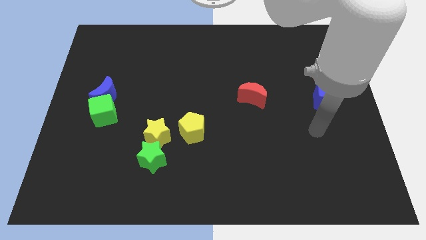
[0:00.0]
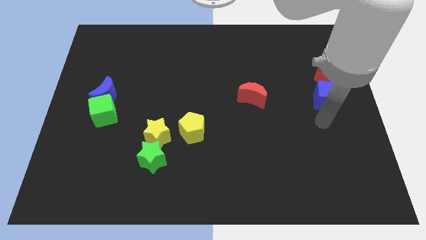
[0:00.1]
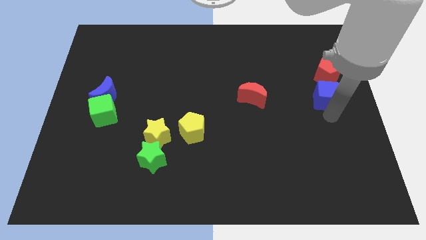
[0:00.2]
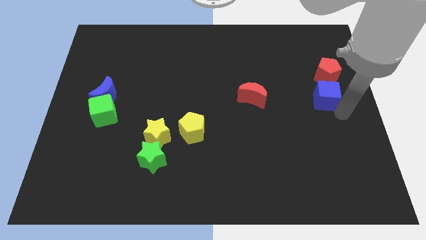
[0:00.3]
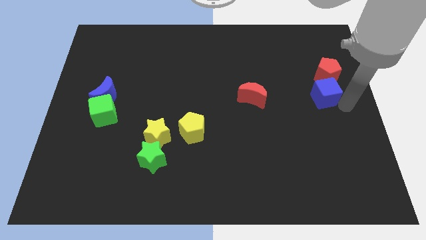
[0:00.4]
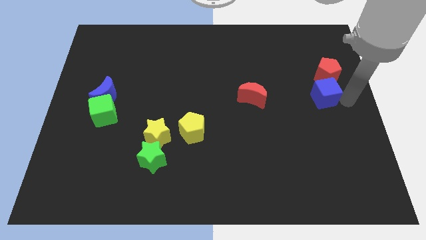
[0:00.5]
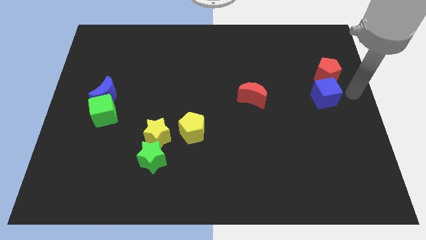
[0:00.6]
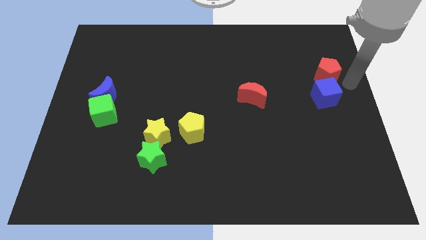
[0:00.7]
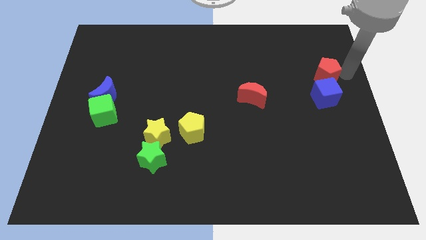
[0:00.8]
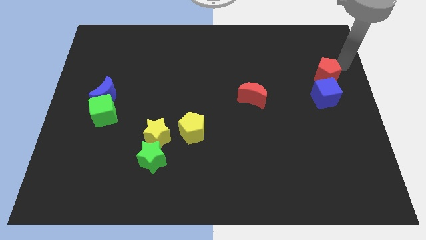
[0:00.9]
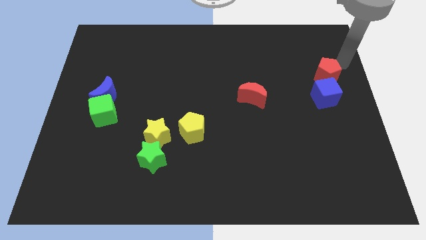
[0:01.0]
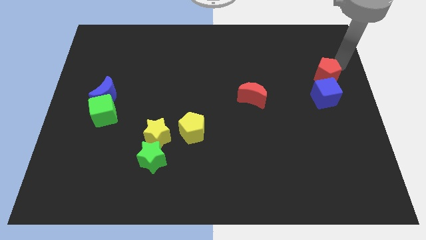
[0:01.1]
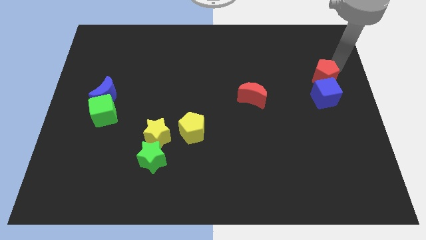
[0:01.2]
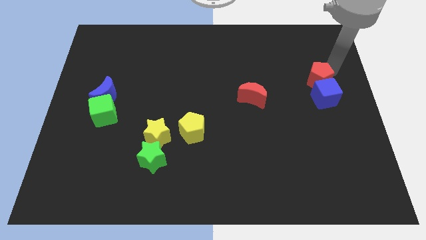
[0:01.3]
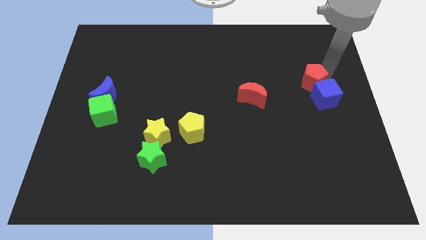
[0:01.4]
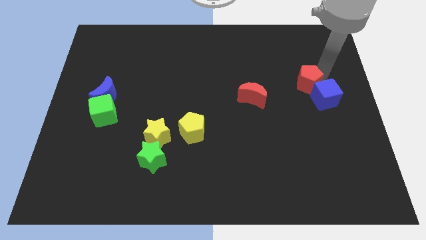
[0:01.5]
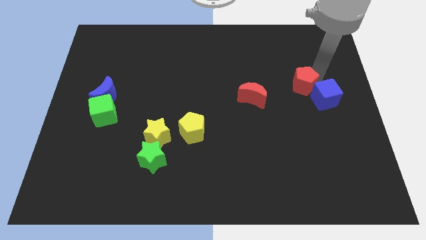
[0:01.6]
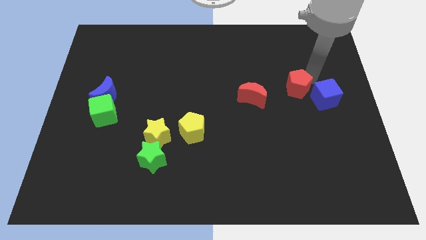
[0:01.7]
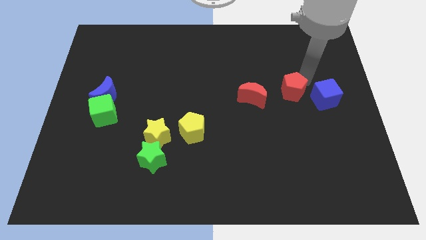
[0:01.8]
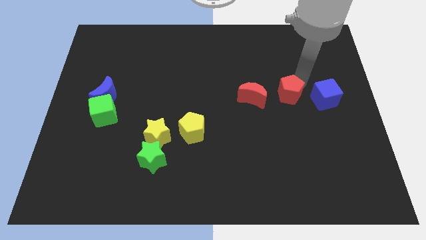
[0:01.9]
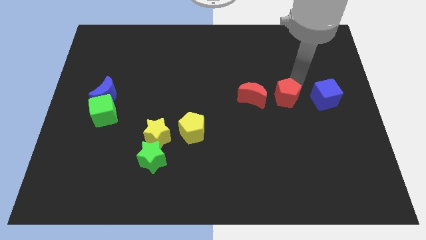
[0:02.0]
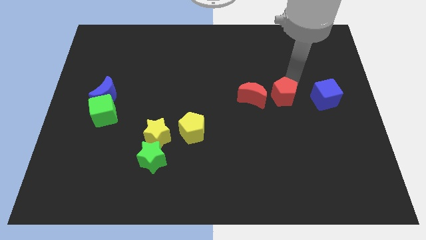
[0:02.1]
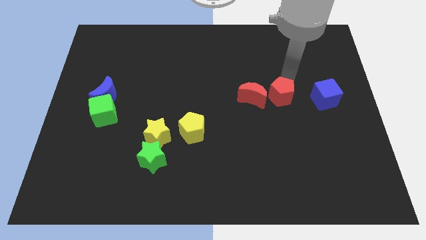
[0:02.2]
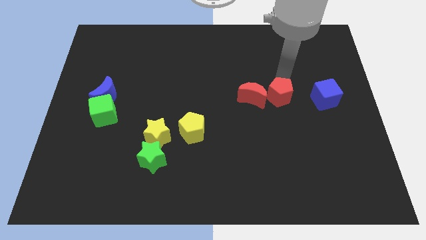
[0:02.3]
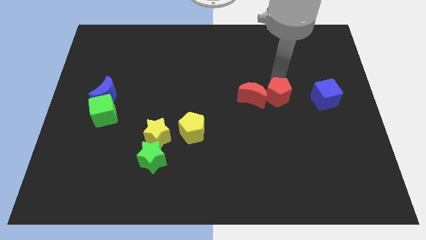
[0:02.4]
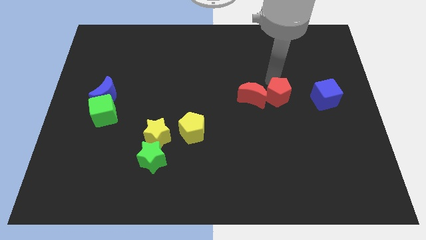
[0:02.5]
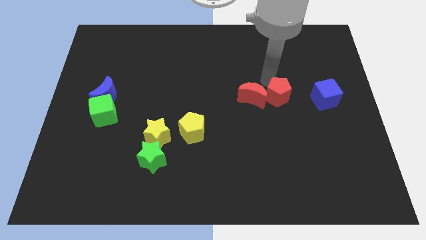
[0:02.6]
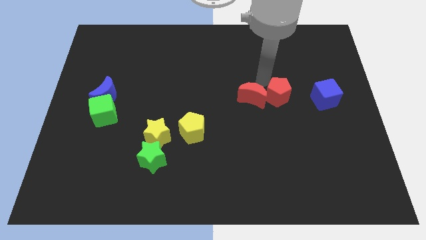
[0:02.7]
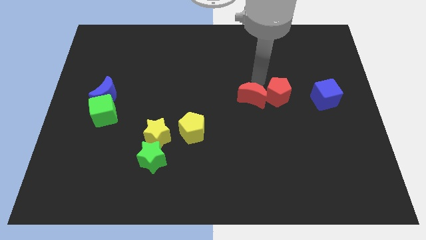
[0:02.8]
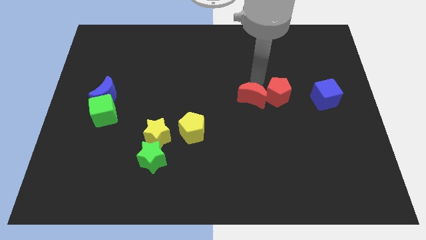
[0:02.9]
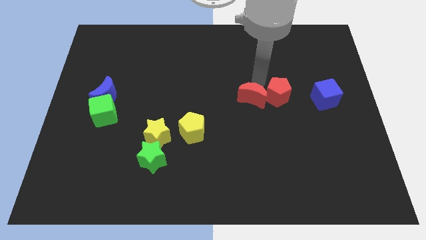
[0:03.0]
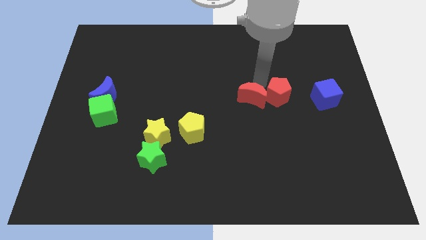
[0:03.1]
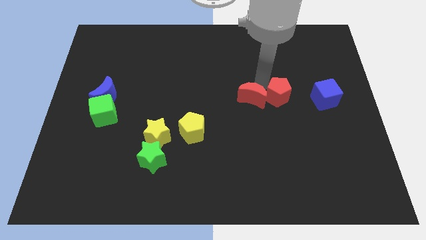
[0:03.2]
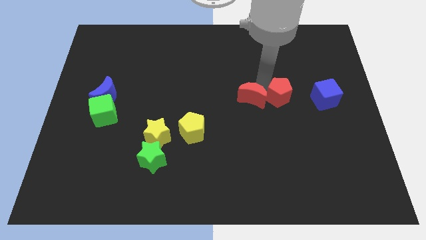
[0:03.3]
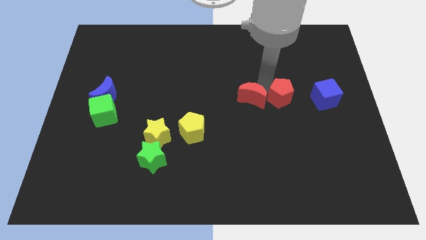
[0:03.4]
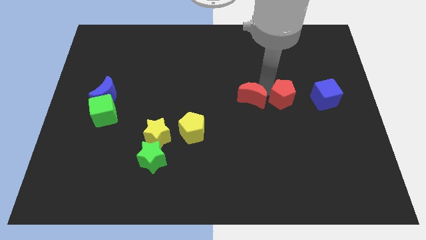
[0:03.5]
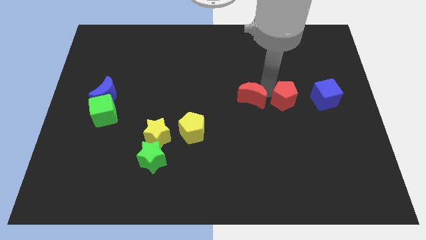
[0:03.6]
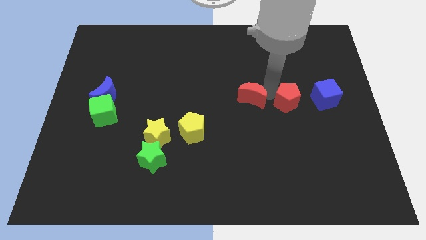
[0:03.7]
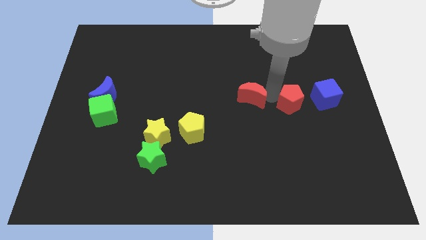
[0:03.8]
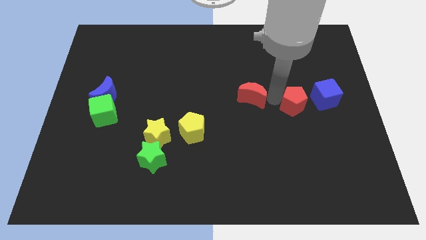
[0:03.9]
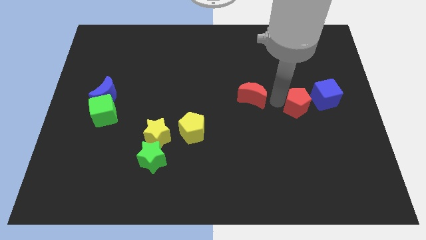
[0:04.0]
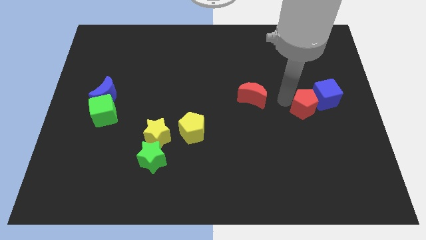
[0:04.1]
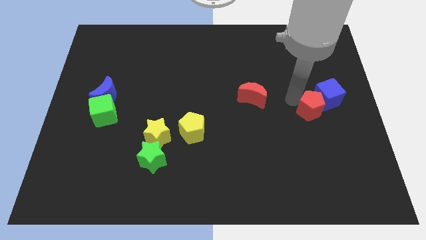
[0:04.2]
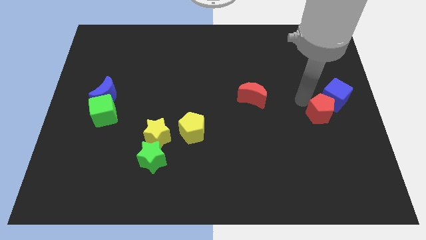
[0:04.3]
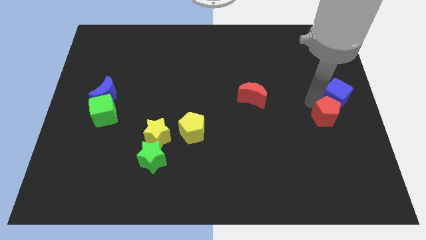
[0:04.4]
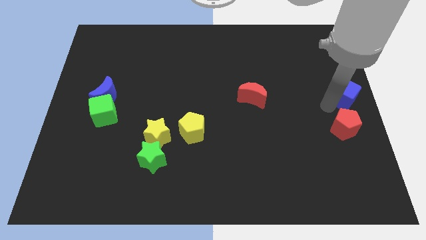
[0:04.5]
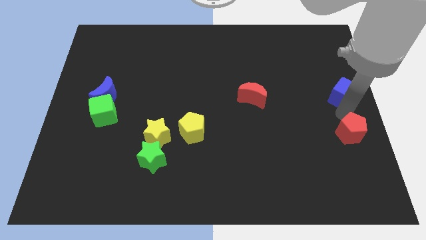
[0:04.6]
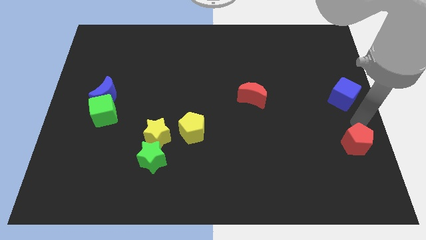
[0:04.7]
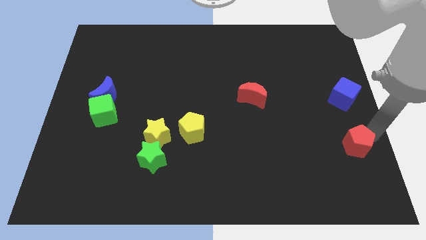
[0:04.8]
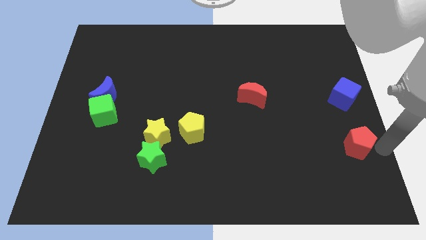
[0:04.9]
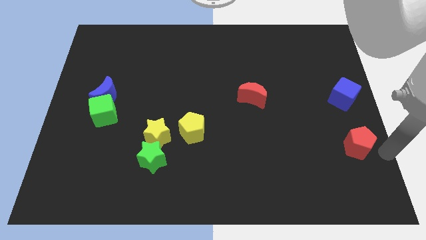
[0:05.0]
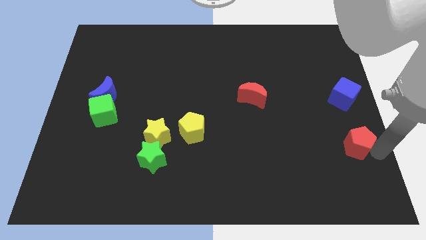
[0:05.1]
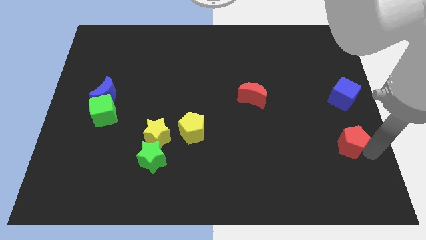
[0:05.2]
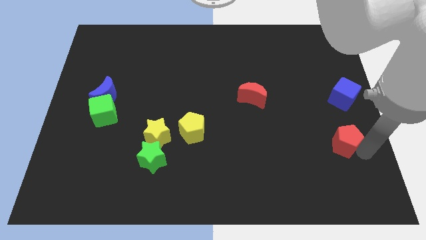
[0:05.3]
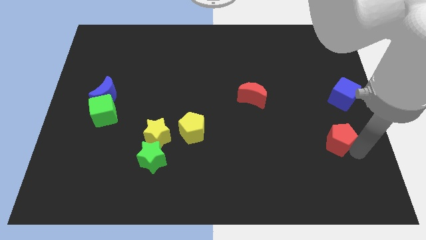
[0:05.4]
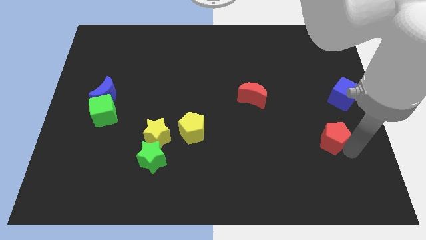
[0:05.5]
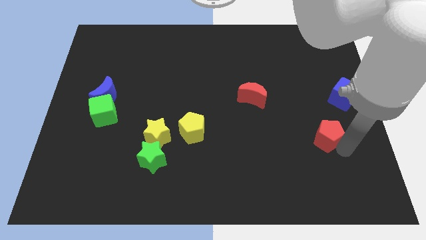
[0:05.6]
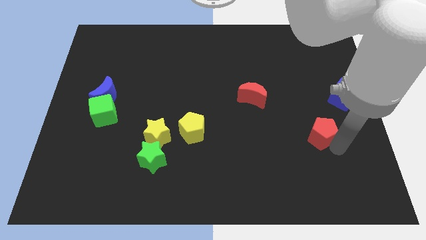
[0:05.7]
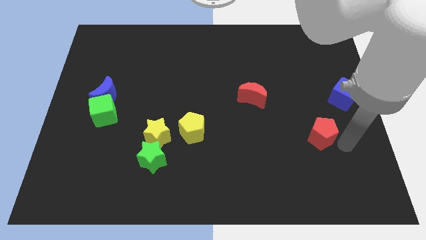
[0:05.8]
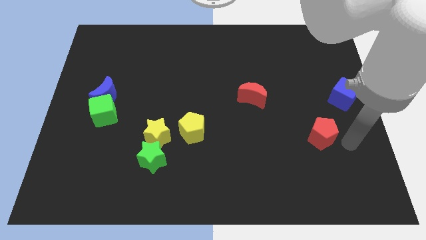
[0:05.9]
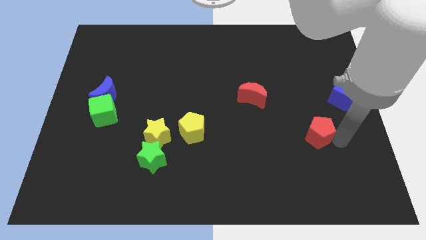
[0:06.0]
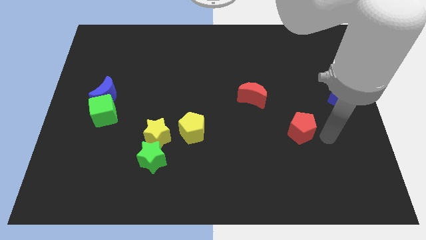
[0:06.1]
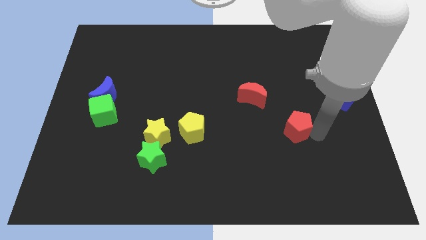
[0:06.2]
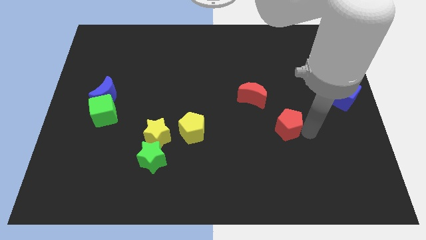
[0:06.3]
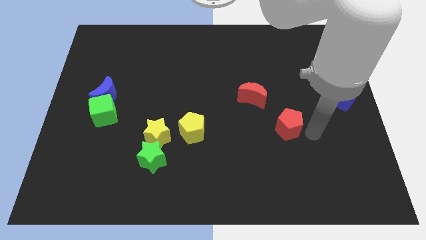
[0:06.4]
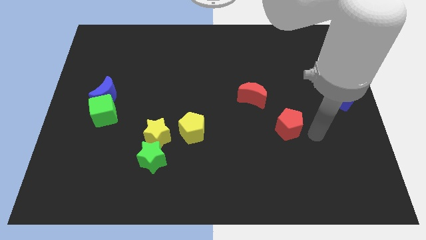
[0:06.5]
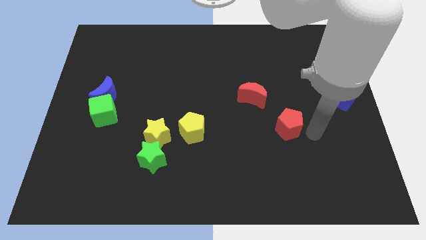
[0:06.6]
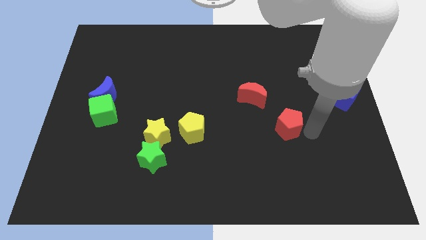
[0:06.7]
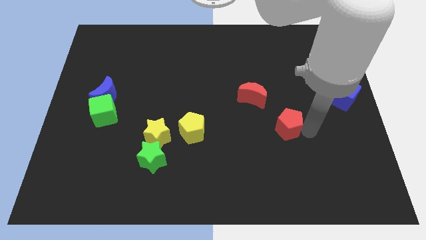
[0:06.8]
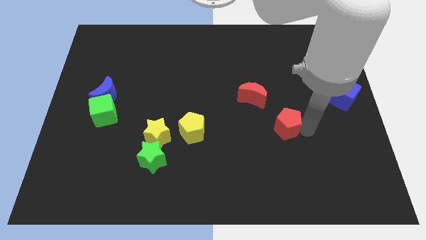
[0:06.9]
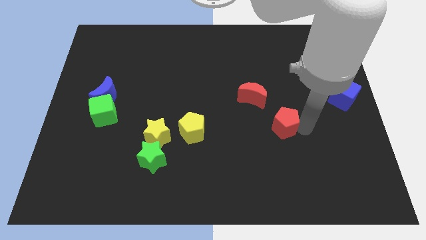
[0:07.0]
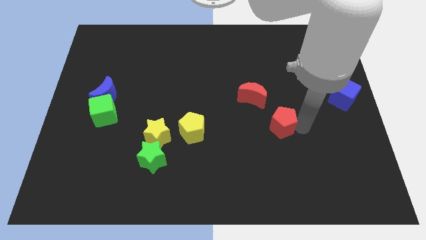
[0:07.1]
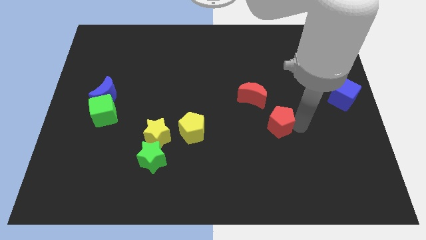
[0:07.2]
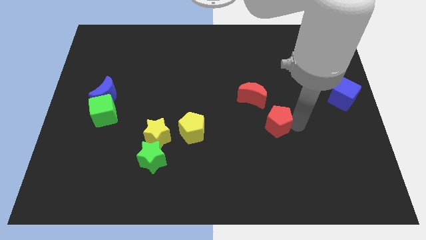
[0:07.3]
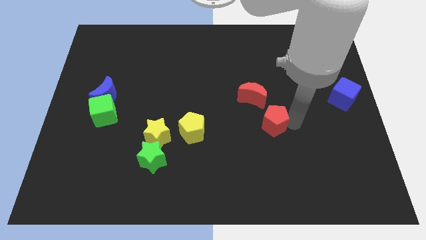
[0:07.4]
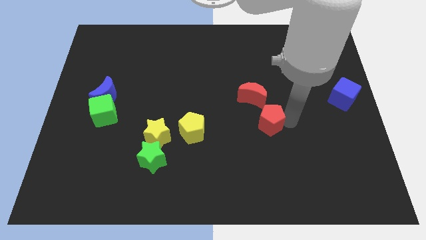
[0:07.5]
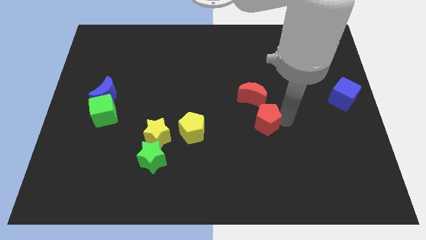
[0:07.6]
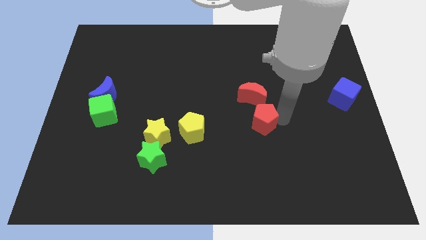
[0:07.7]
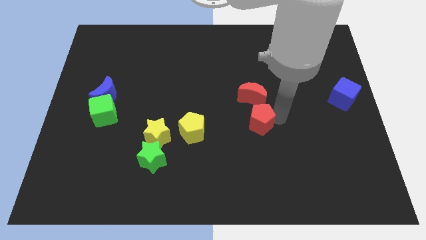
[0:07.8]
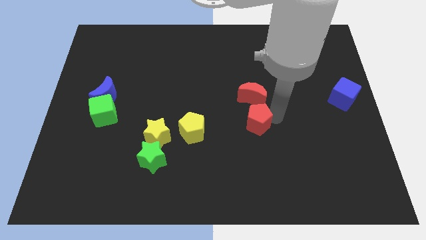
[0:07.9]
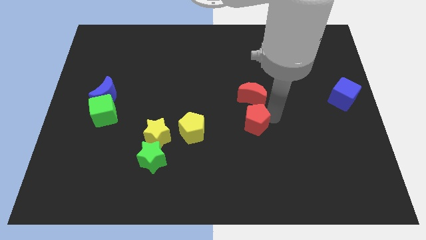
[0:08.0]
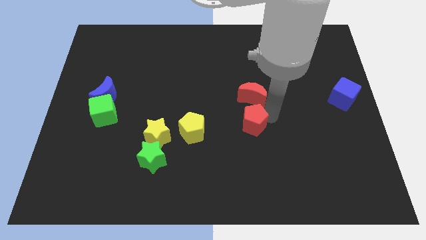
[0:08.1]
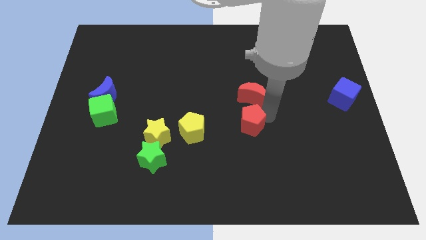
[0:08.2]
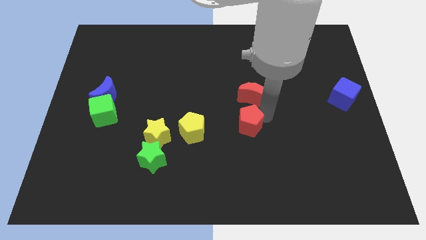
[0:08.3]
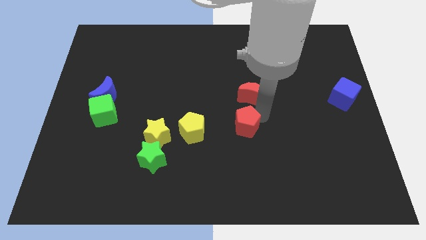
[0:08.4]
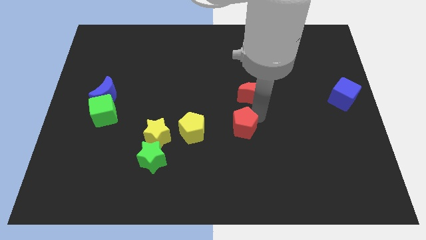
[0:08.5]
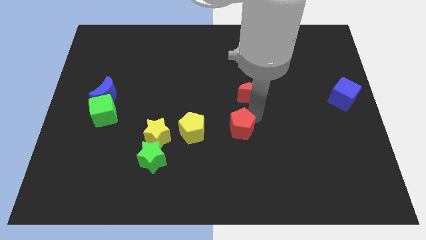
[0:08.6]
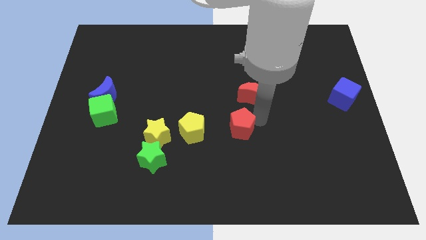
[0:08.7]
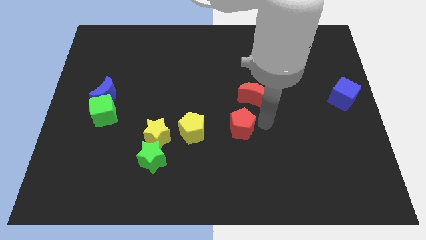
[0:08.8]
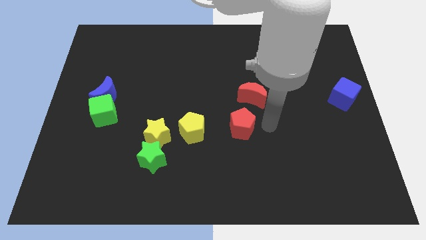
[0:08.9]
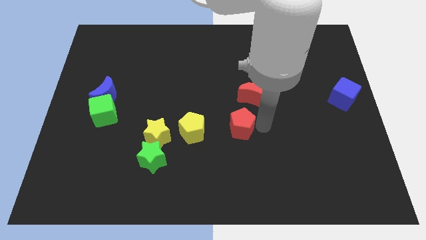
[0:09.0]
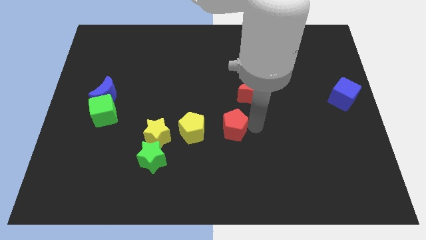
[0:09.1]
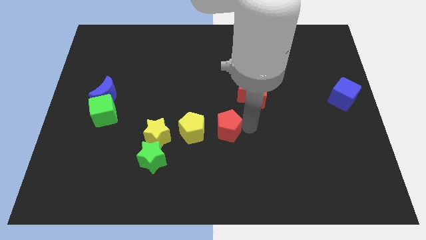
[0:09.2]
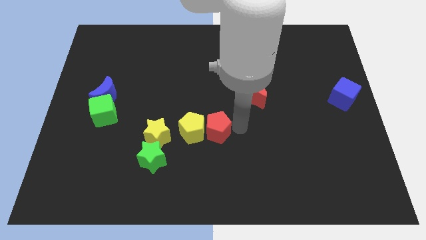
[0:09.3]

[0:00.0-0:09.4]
move the red pentagon towards the yellow pentagon
